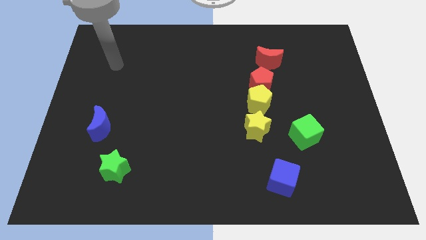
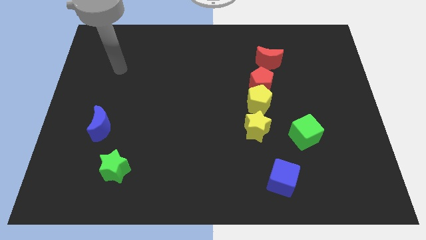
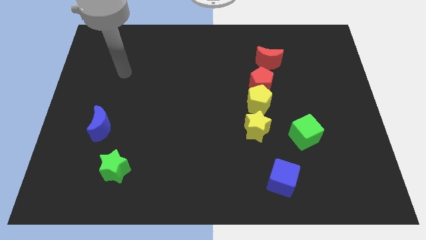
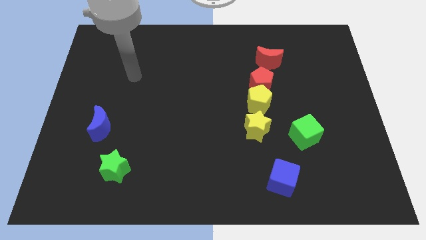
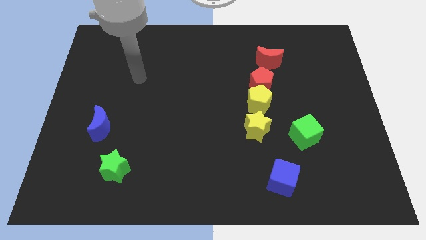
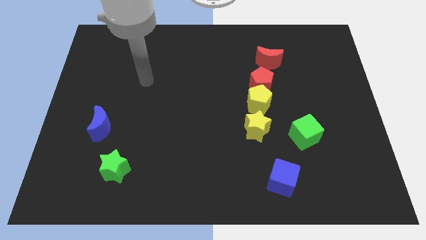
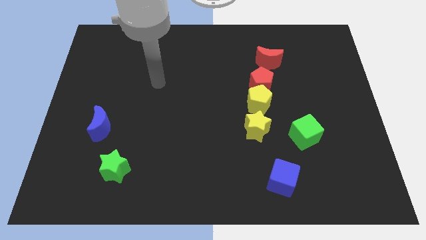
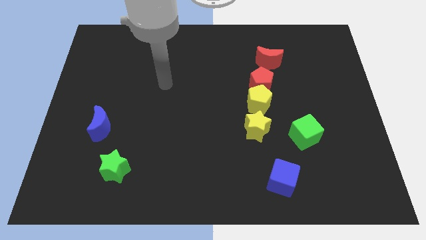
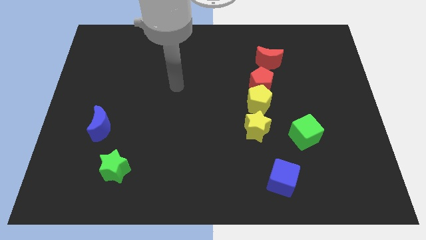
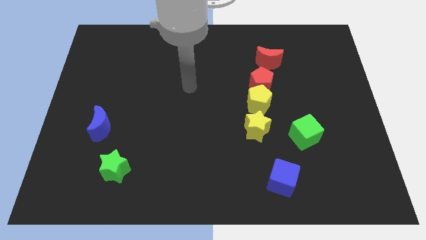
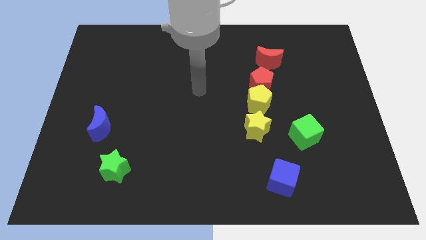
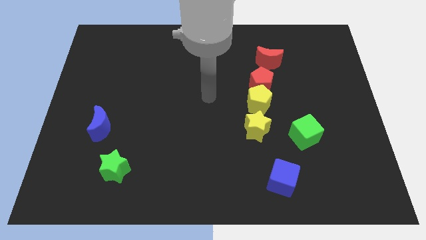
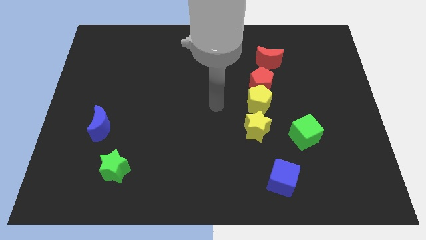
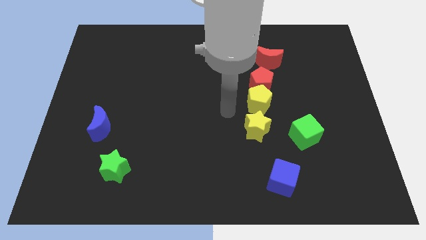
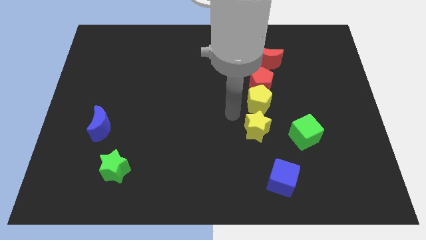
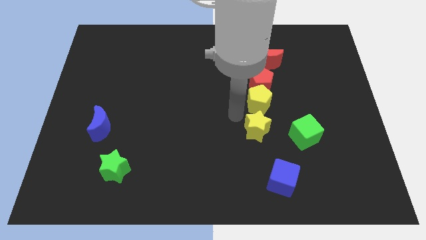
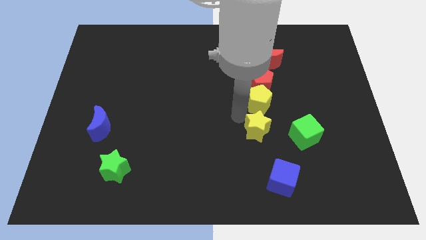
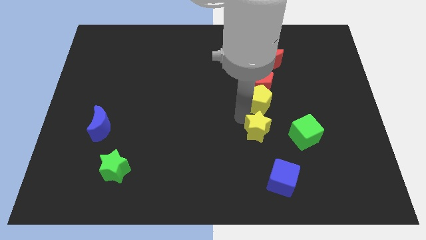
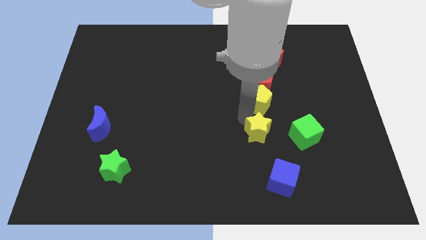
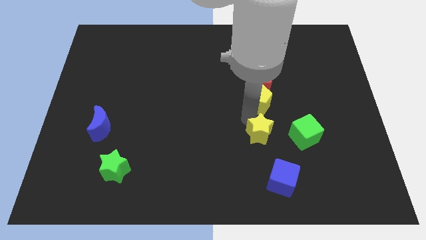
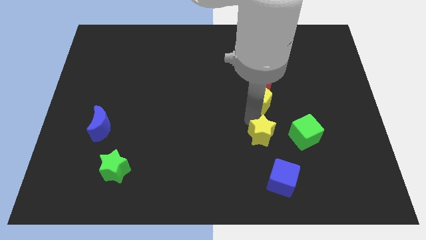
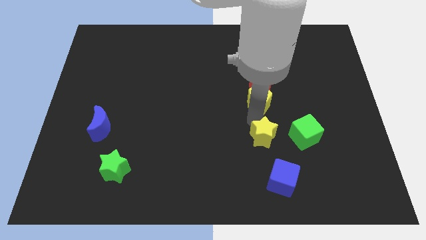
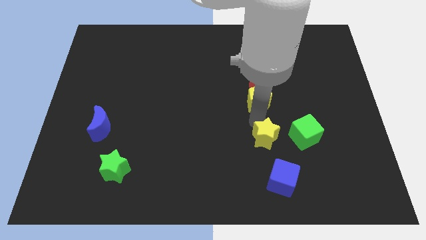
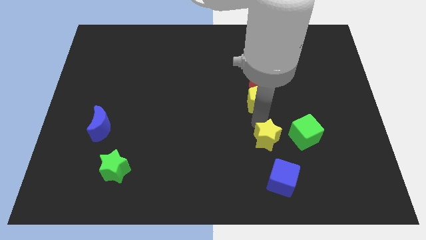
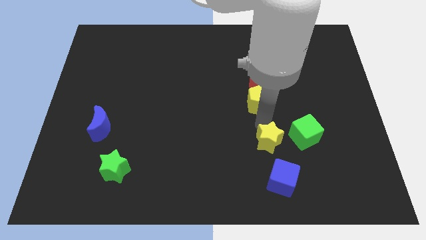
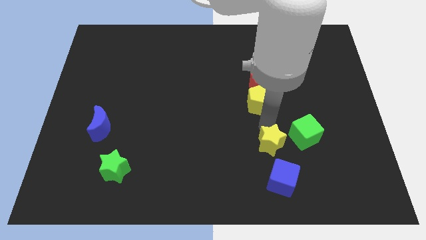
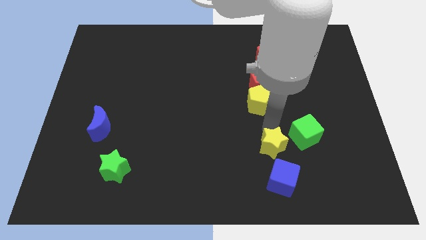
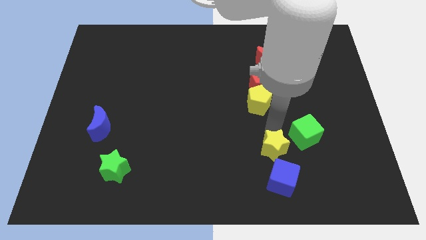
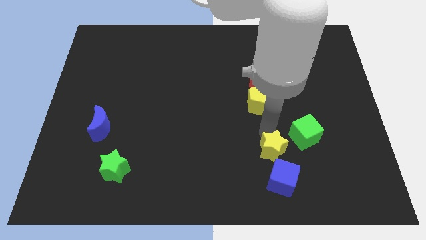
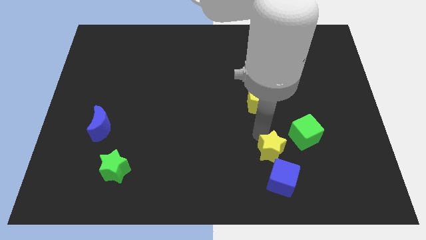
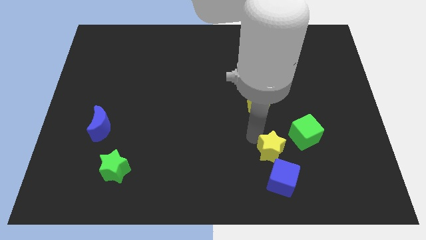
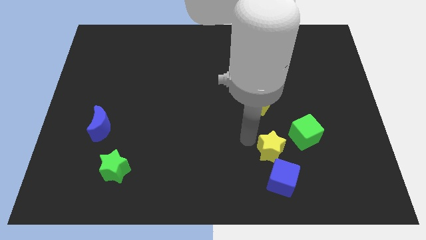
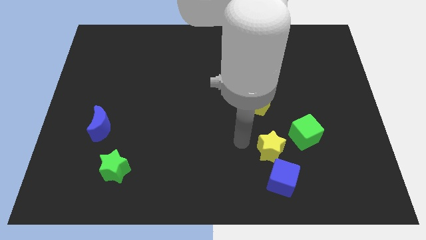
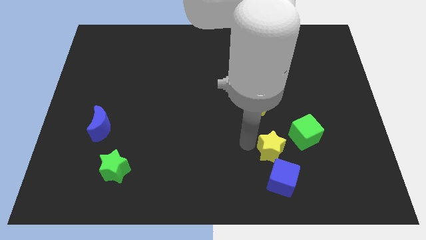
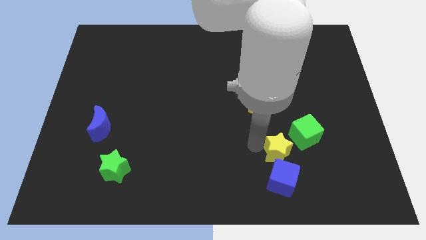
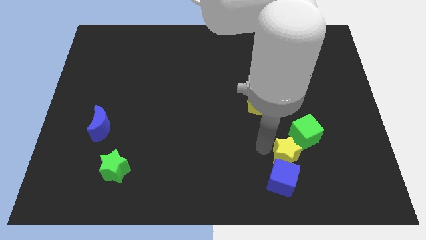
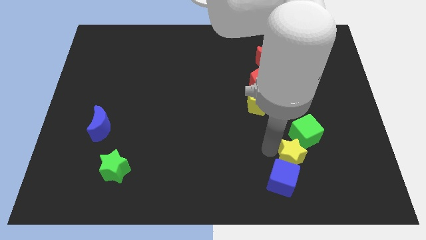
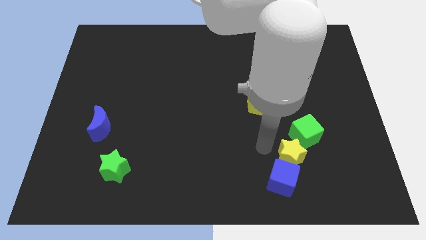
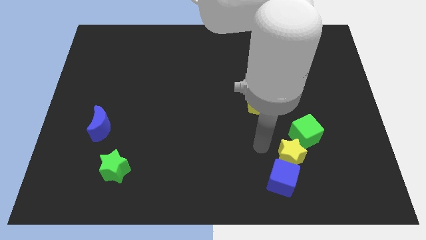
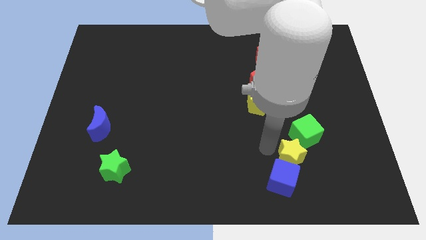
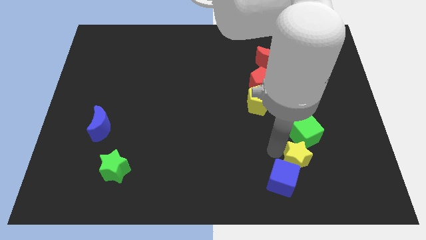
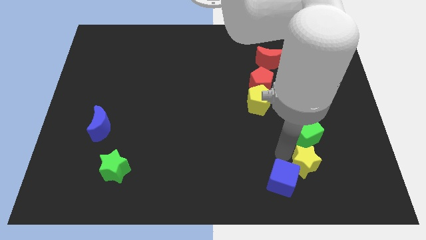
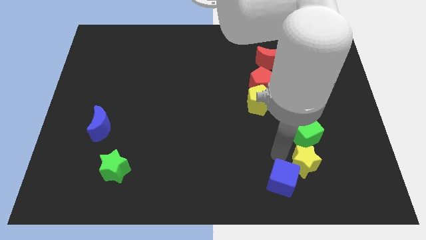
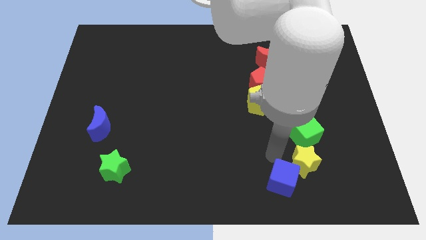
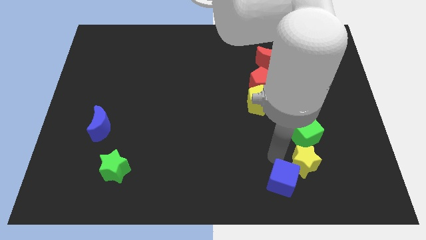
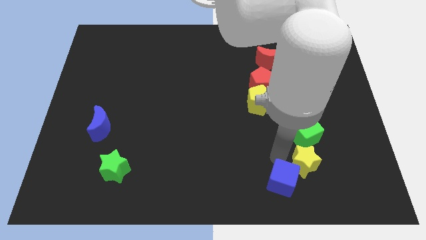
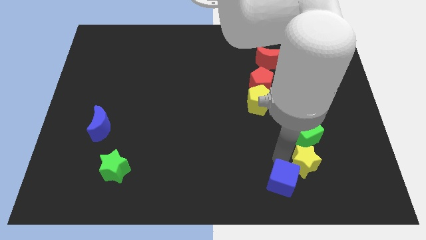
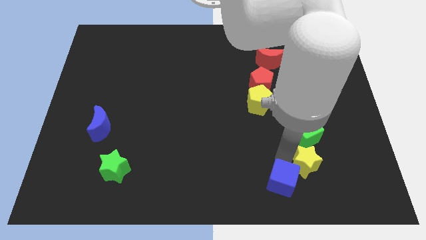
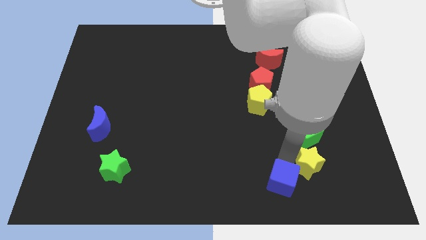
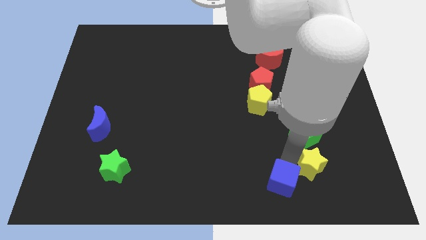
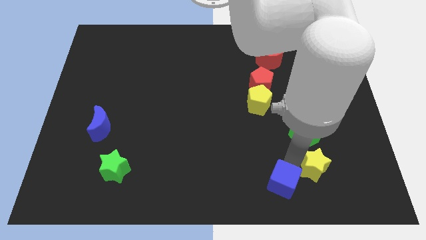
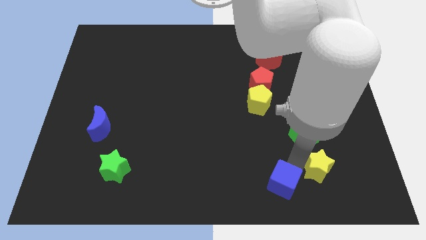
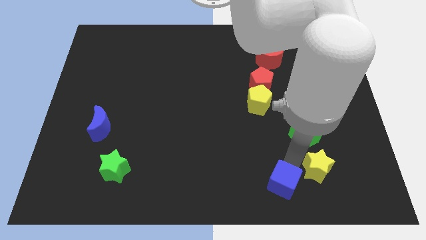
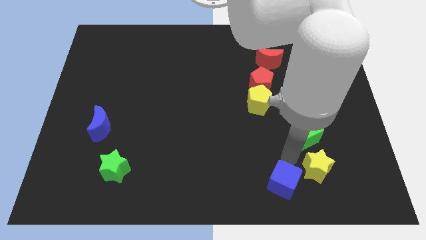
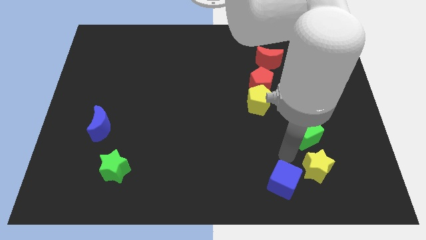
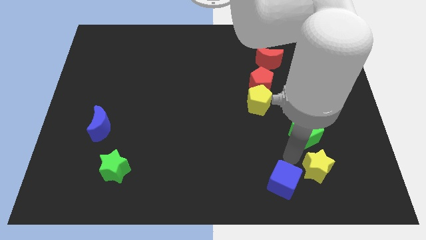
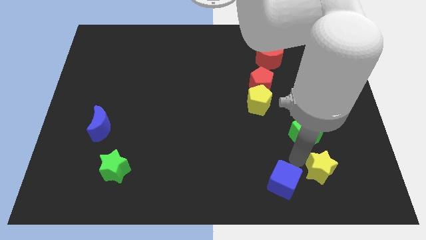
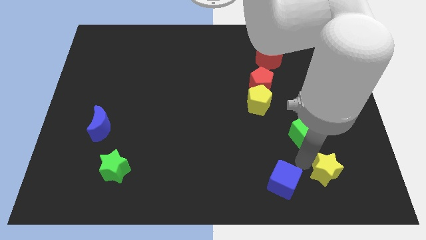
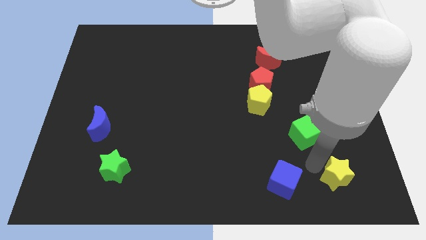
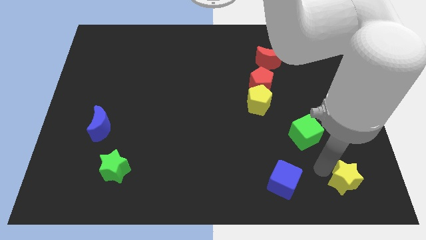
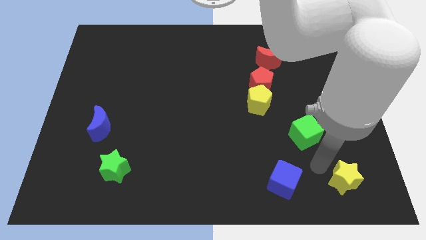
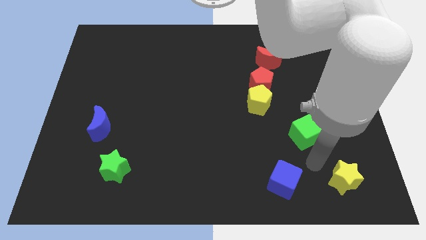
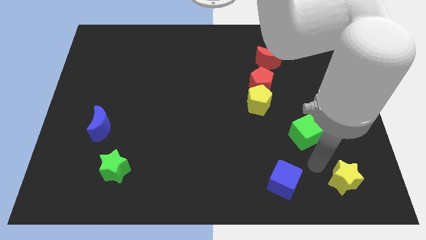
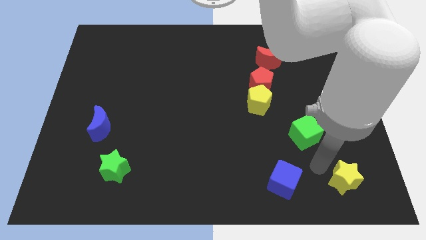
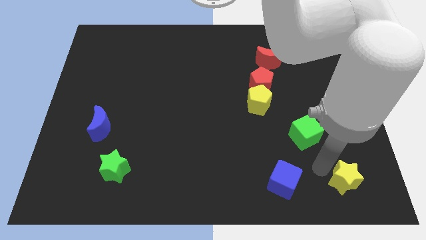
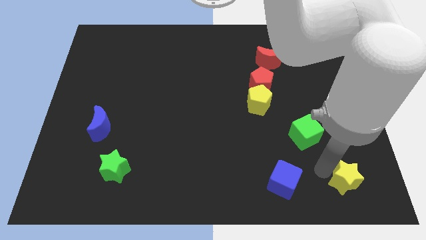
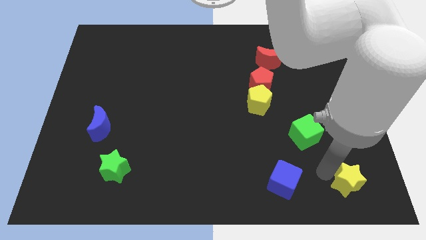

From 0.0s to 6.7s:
push the yellow star to the bottom right

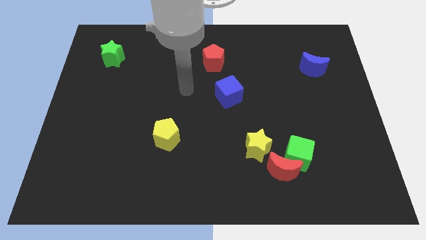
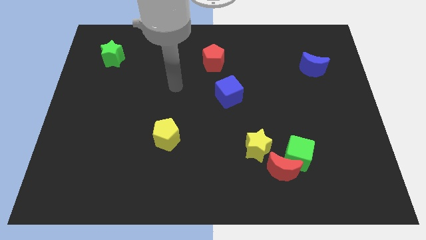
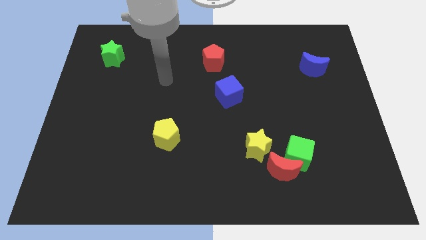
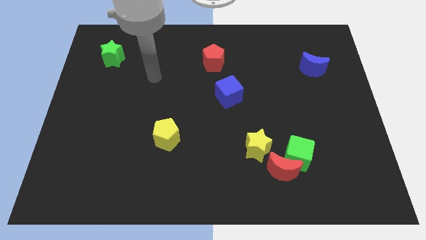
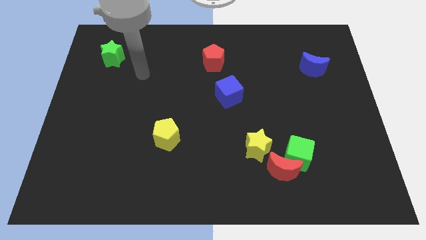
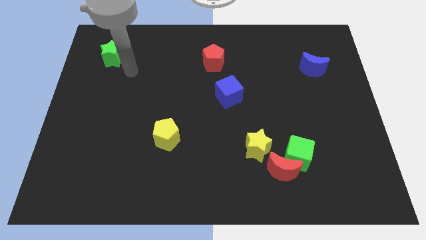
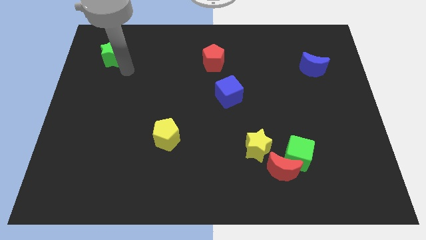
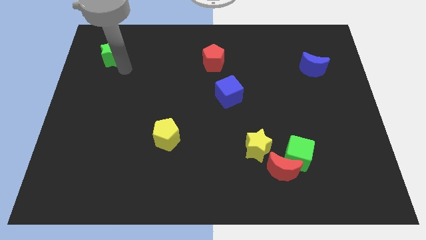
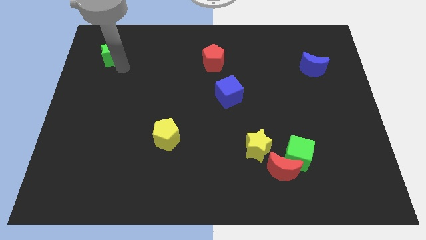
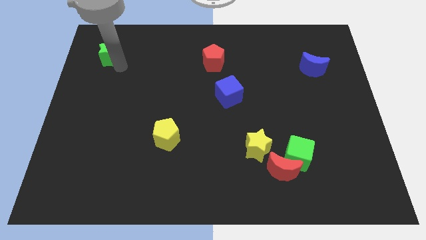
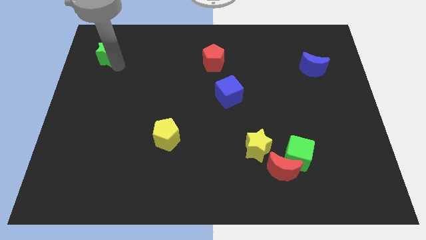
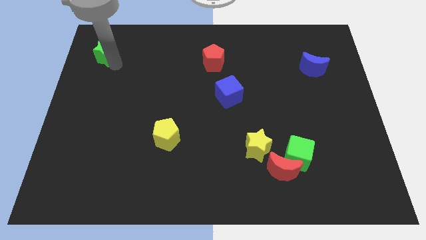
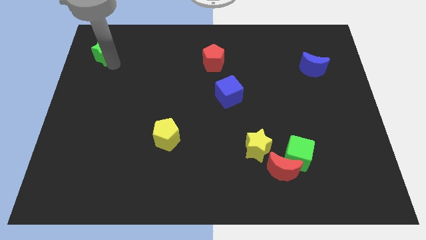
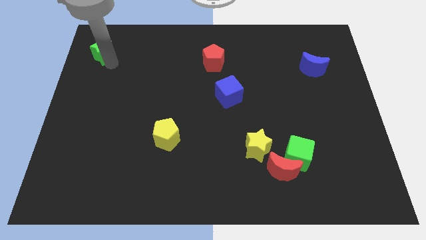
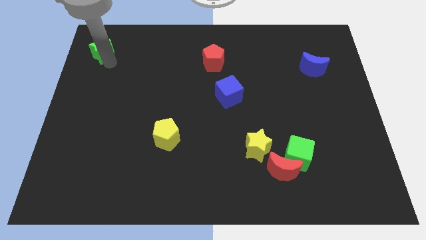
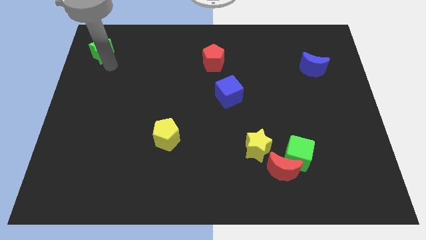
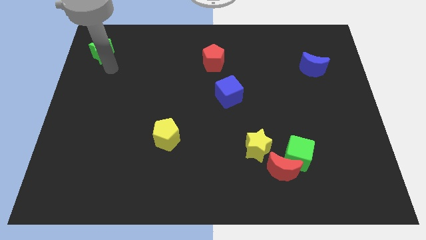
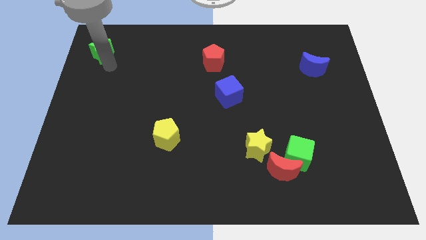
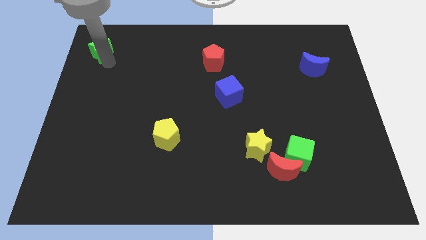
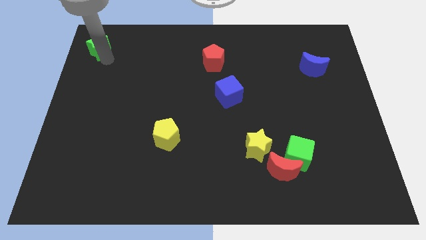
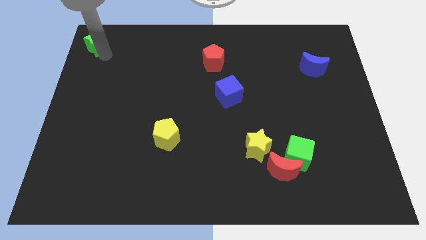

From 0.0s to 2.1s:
slide the green star to the top left of the board
